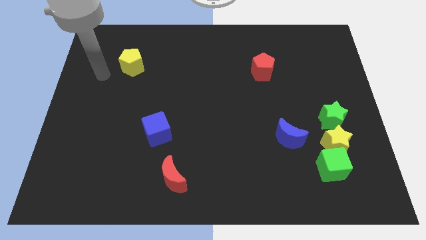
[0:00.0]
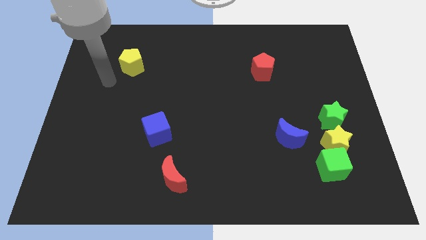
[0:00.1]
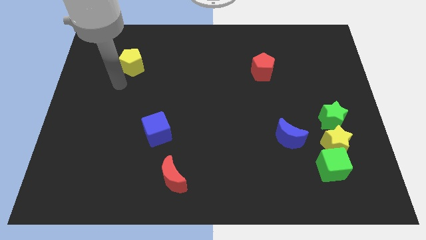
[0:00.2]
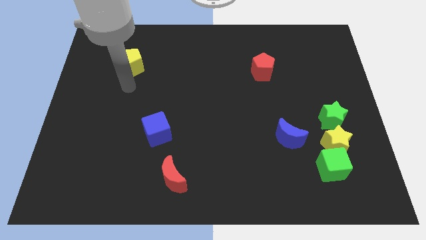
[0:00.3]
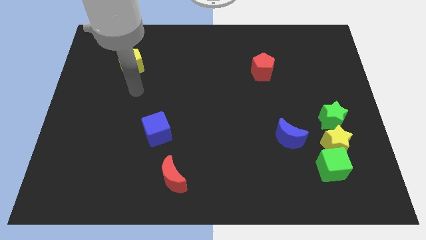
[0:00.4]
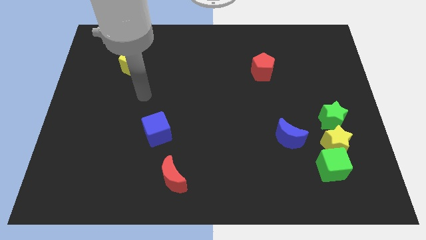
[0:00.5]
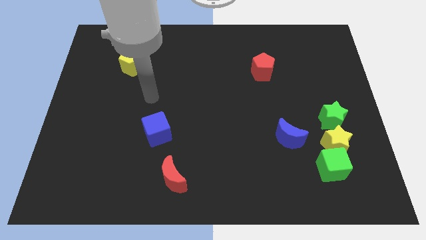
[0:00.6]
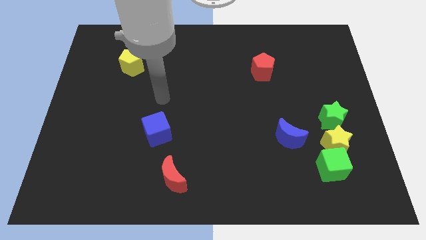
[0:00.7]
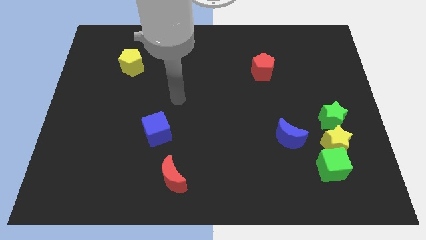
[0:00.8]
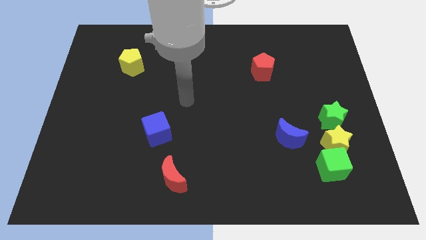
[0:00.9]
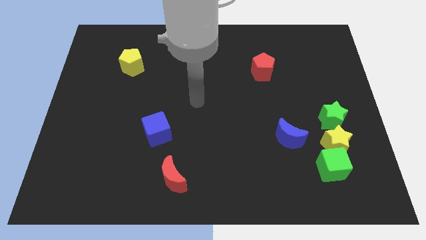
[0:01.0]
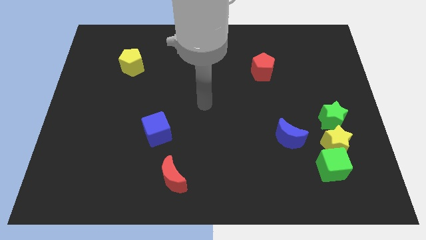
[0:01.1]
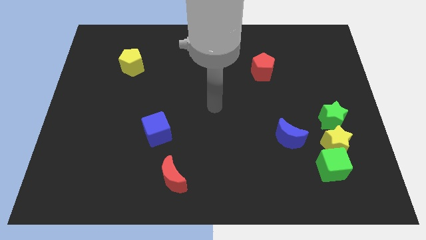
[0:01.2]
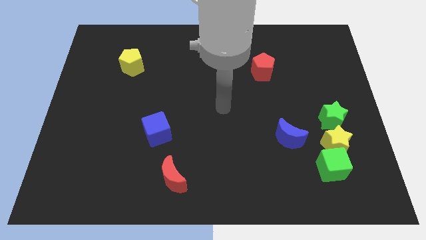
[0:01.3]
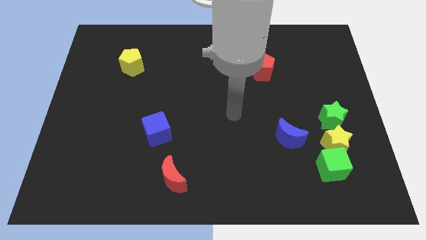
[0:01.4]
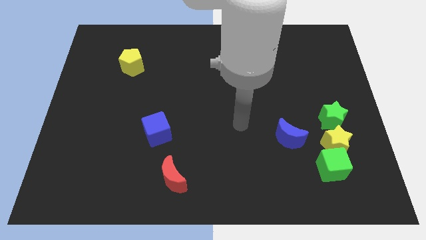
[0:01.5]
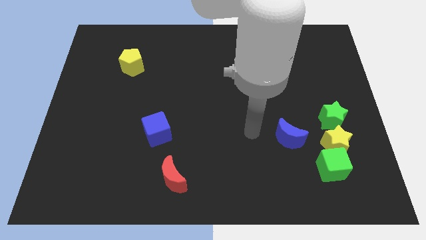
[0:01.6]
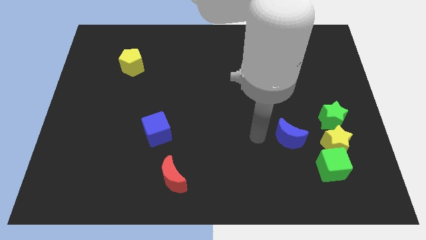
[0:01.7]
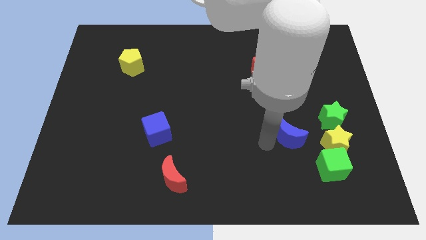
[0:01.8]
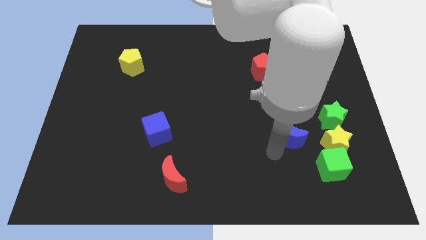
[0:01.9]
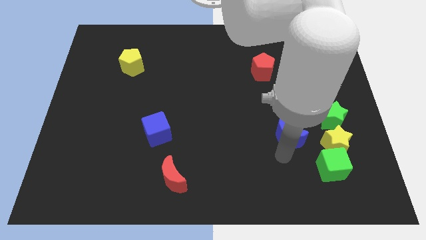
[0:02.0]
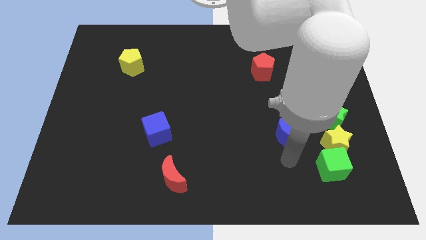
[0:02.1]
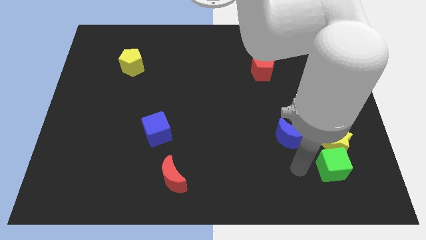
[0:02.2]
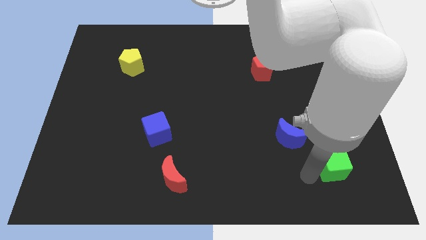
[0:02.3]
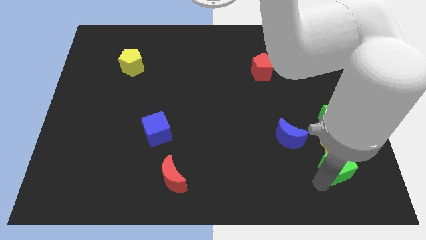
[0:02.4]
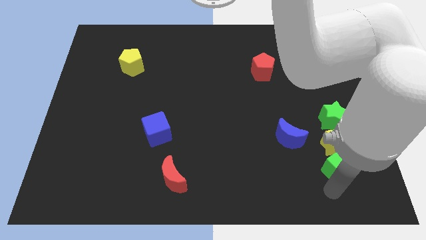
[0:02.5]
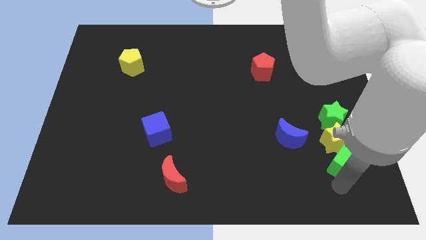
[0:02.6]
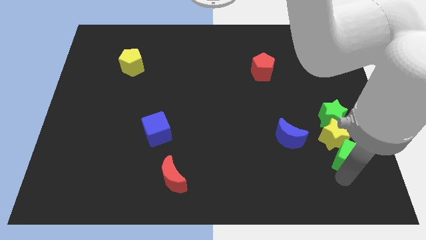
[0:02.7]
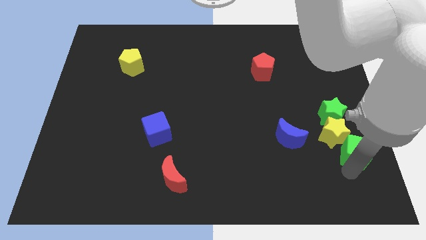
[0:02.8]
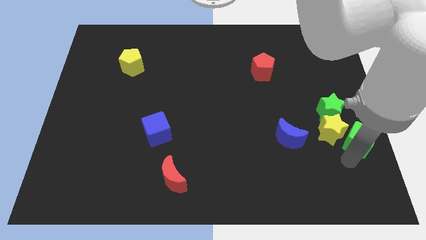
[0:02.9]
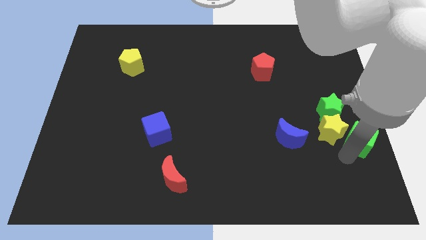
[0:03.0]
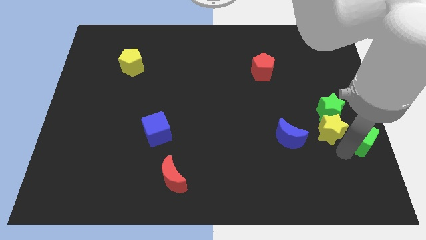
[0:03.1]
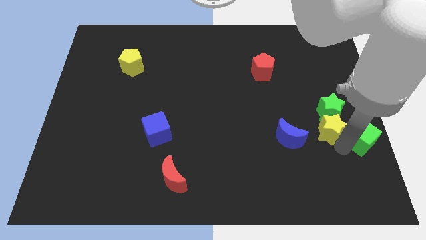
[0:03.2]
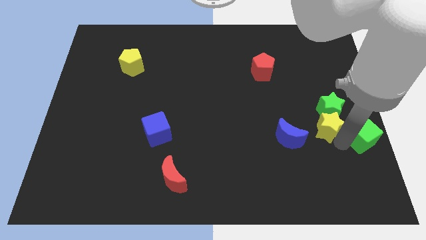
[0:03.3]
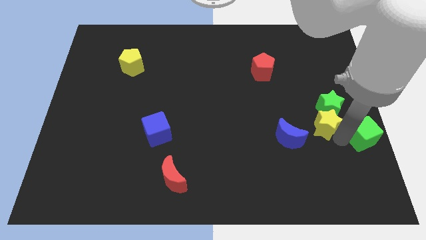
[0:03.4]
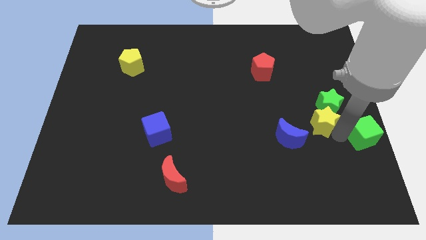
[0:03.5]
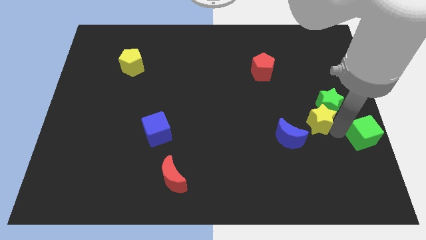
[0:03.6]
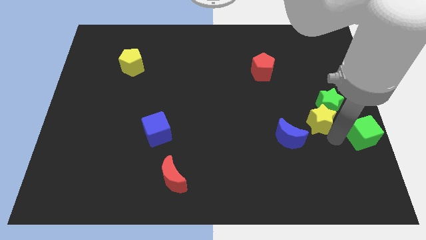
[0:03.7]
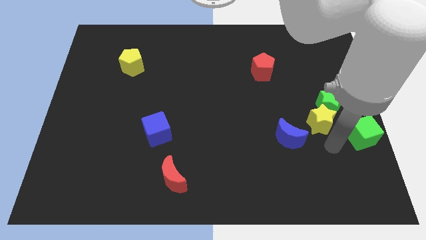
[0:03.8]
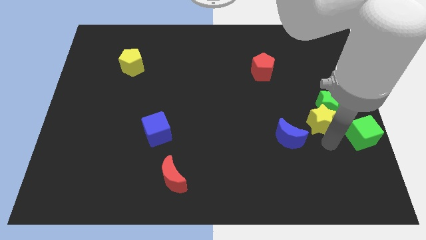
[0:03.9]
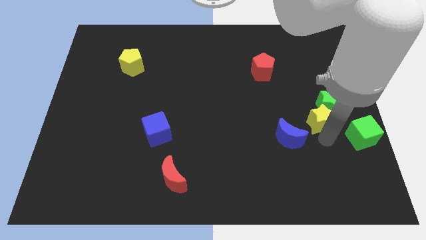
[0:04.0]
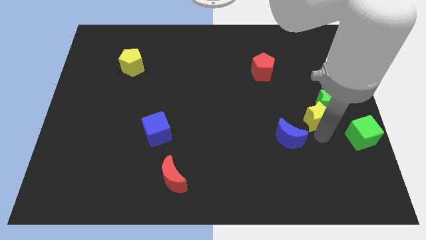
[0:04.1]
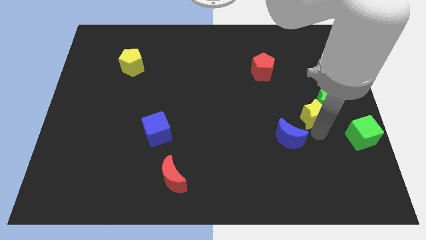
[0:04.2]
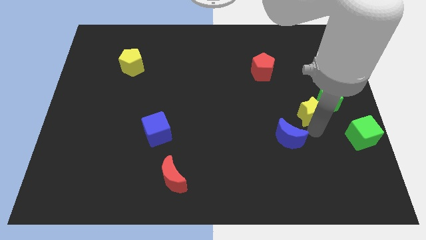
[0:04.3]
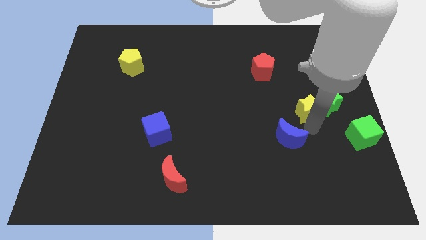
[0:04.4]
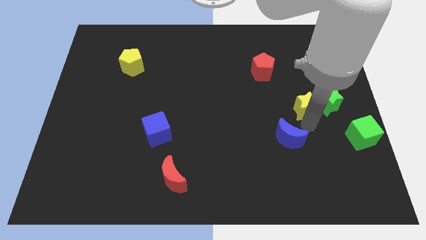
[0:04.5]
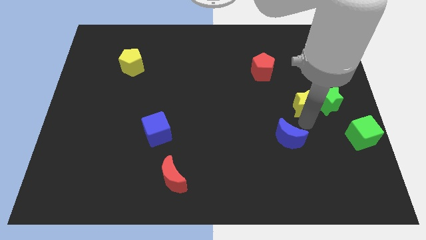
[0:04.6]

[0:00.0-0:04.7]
move the yellow star to the top left side of the green star

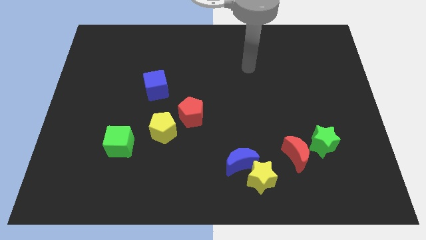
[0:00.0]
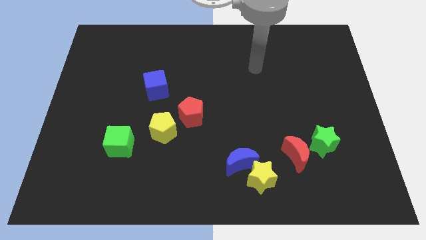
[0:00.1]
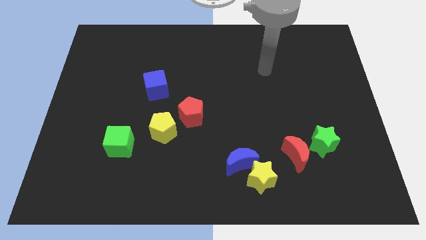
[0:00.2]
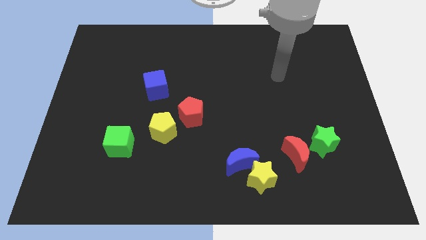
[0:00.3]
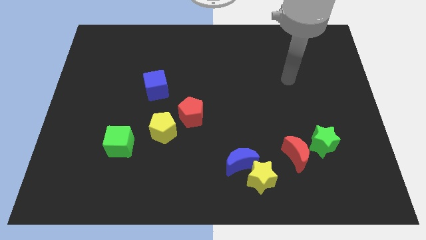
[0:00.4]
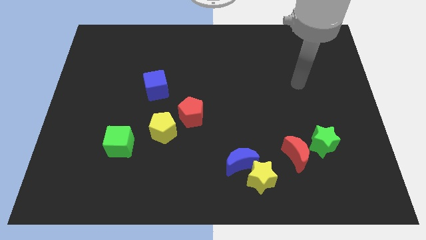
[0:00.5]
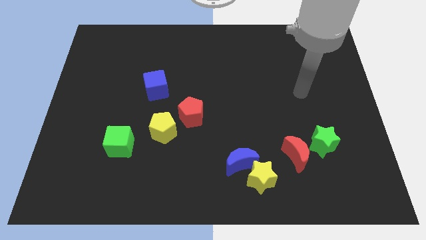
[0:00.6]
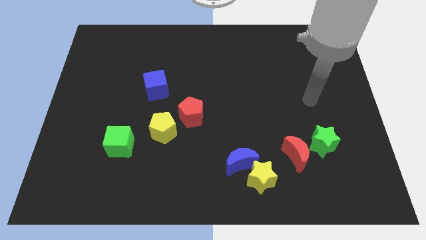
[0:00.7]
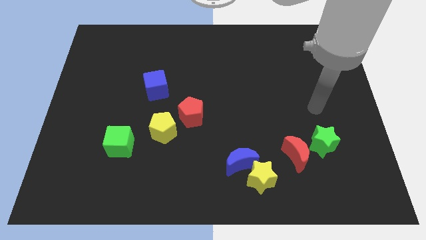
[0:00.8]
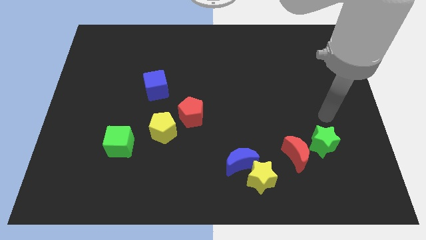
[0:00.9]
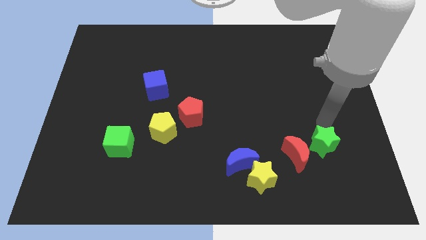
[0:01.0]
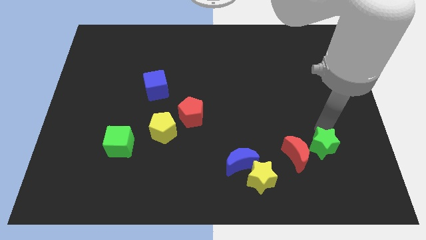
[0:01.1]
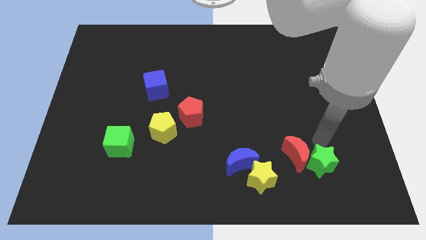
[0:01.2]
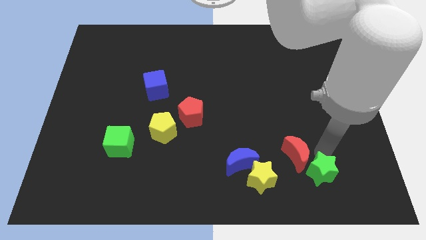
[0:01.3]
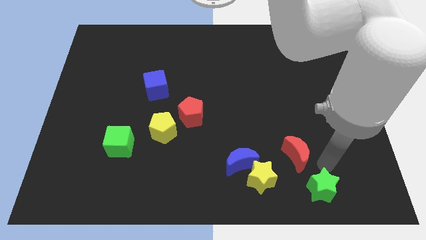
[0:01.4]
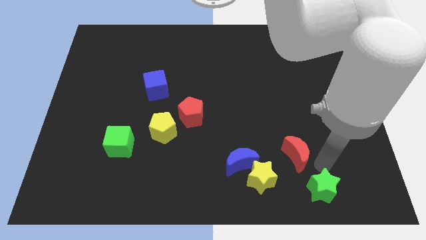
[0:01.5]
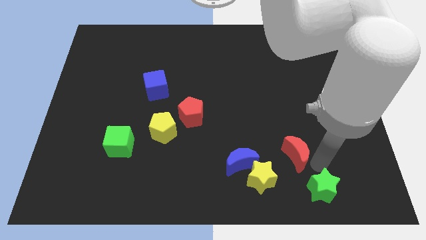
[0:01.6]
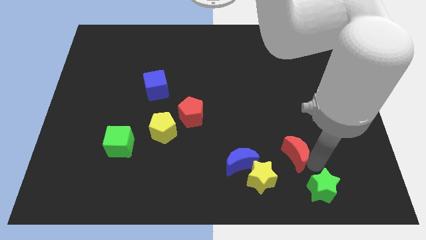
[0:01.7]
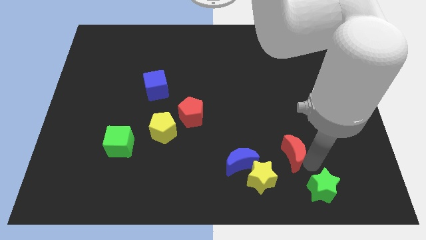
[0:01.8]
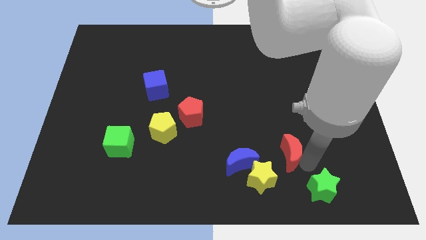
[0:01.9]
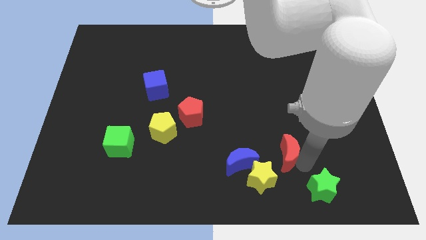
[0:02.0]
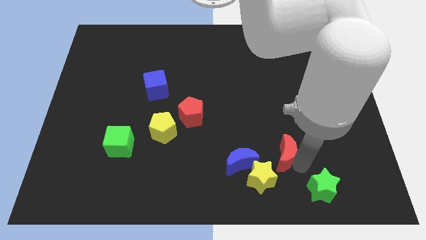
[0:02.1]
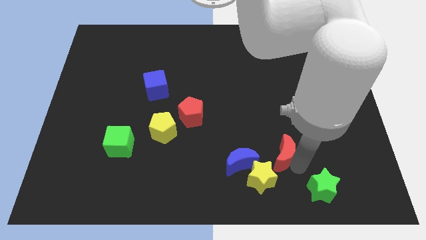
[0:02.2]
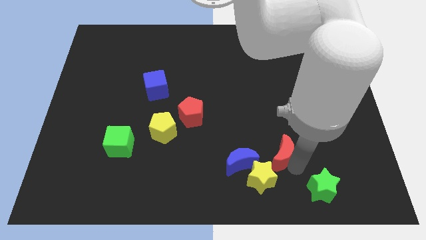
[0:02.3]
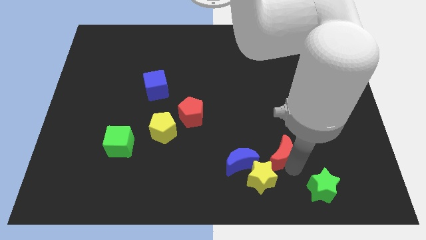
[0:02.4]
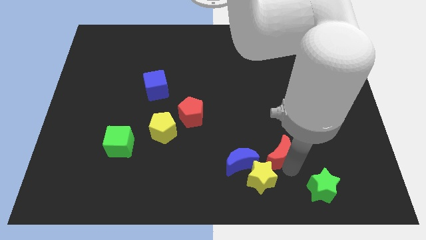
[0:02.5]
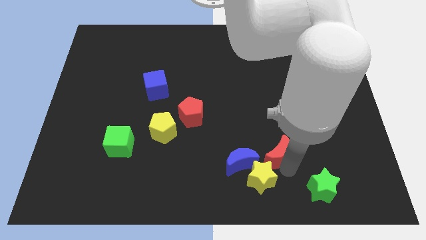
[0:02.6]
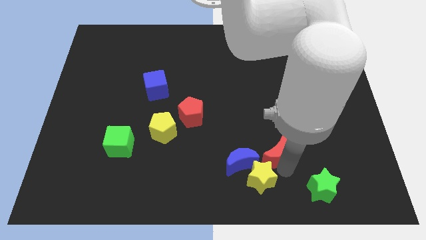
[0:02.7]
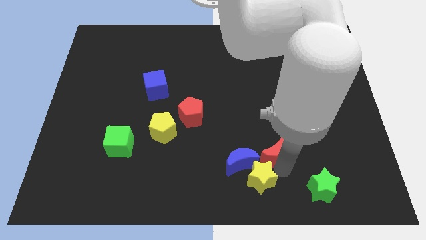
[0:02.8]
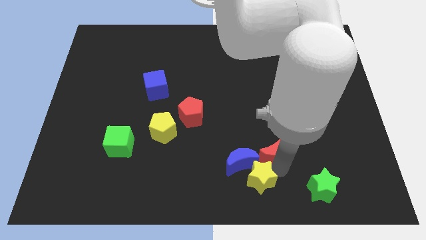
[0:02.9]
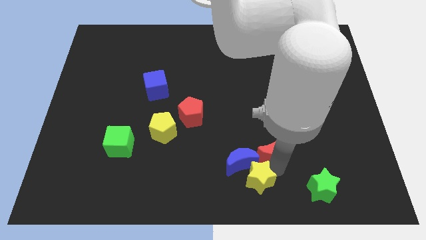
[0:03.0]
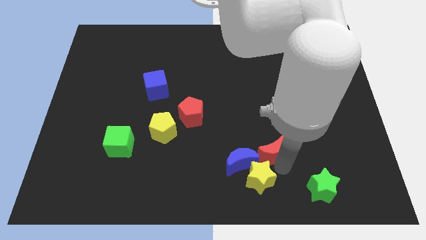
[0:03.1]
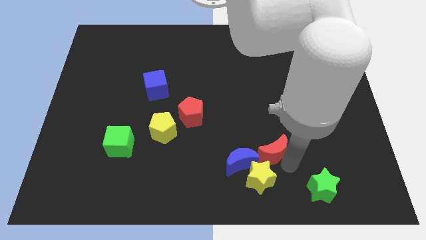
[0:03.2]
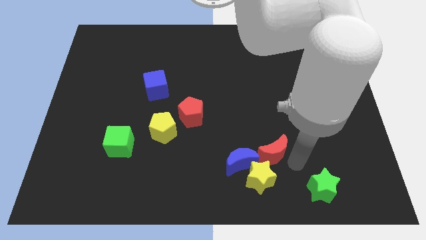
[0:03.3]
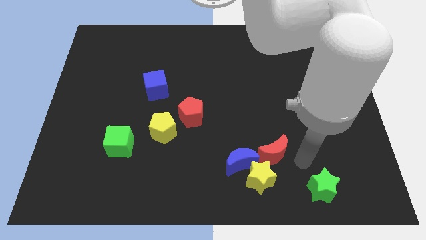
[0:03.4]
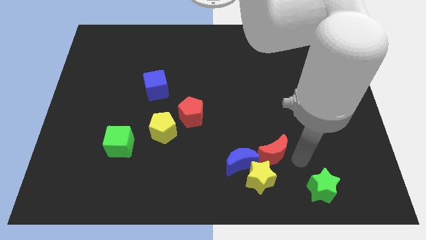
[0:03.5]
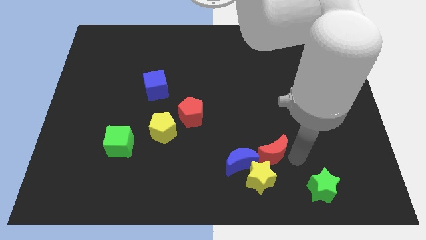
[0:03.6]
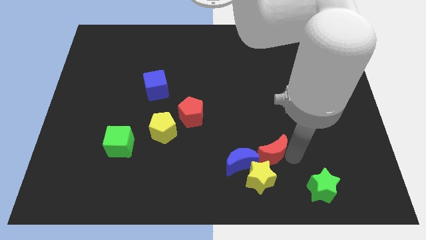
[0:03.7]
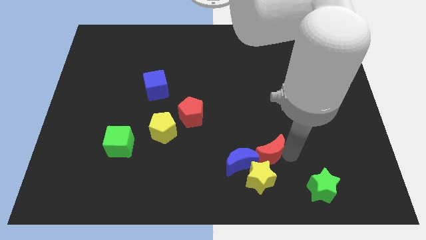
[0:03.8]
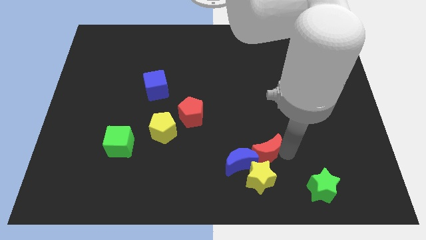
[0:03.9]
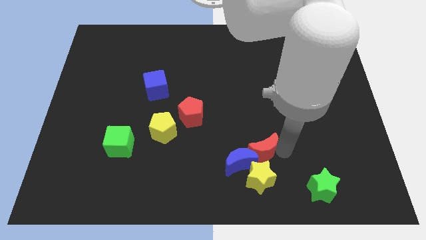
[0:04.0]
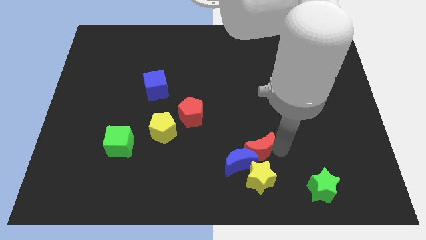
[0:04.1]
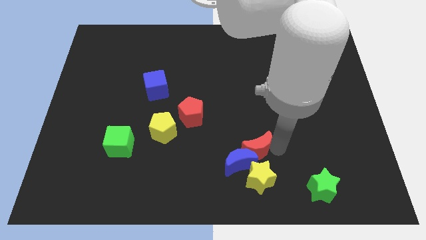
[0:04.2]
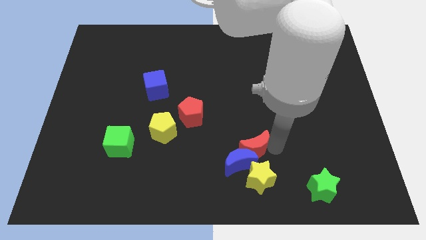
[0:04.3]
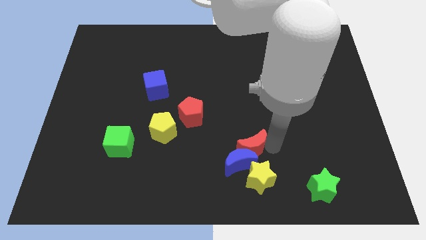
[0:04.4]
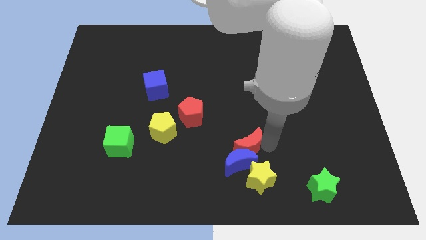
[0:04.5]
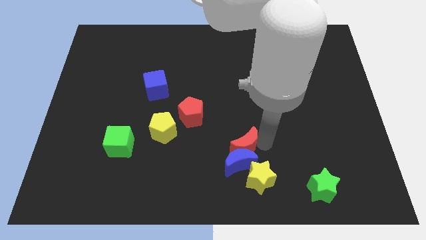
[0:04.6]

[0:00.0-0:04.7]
move the red moon to the top left of the blue moon
